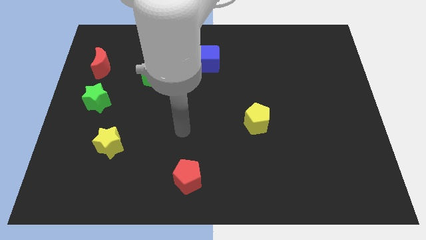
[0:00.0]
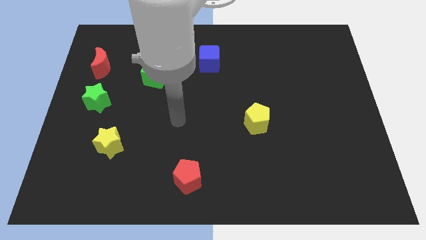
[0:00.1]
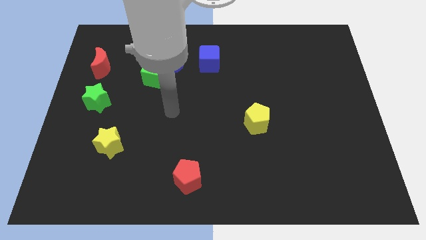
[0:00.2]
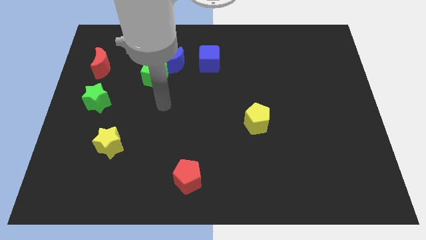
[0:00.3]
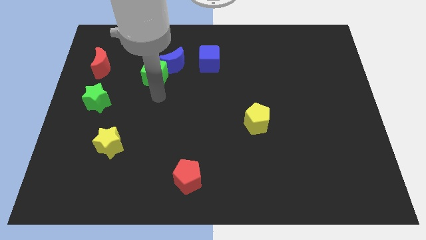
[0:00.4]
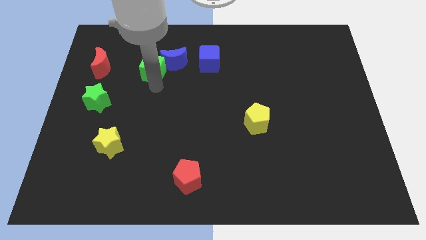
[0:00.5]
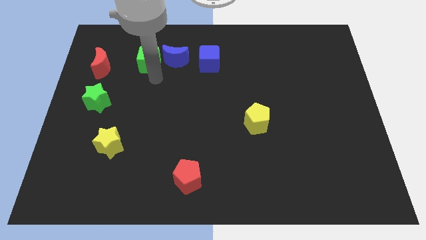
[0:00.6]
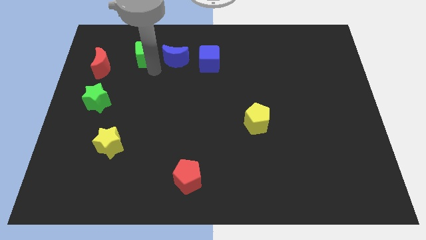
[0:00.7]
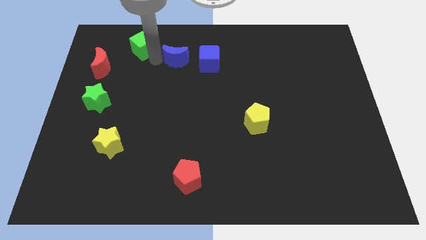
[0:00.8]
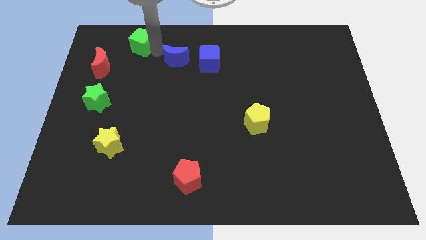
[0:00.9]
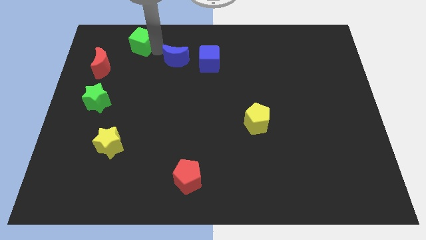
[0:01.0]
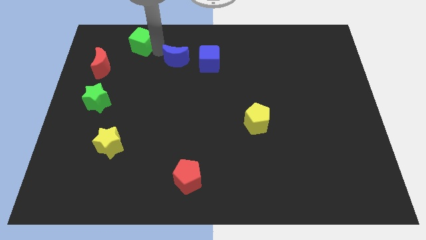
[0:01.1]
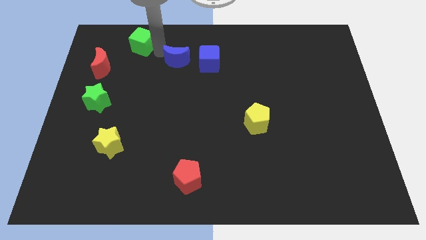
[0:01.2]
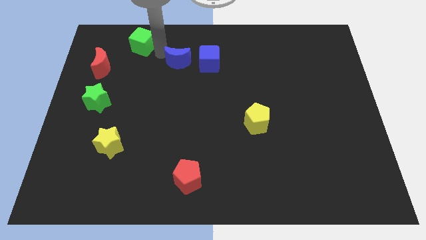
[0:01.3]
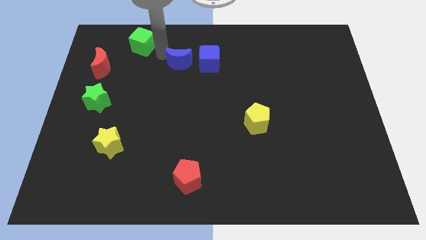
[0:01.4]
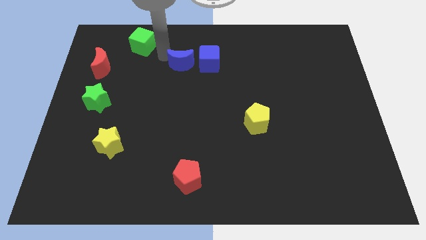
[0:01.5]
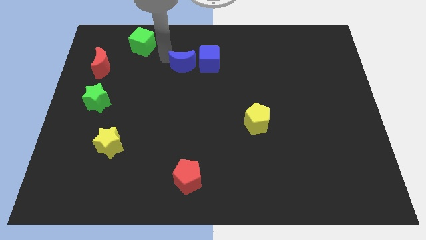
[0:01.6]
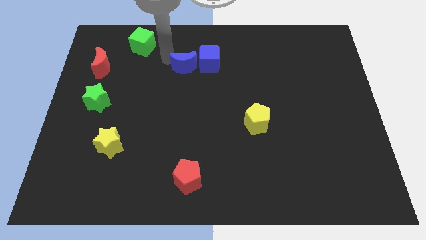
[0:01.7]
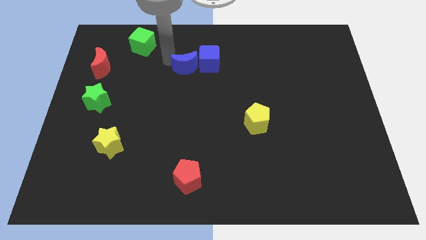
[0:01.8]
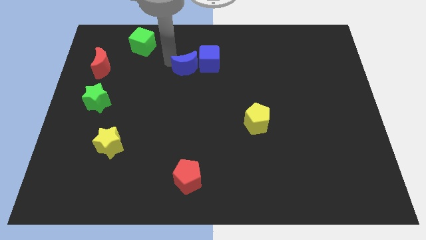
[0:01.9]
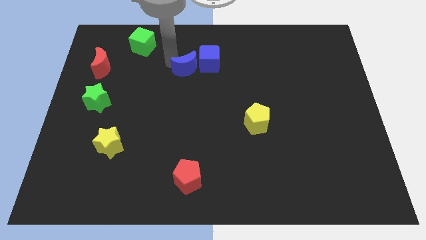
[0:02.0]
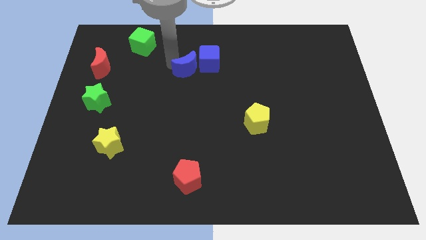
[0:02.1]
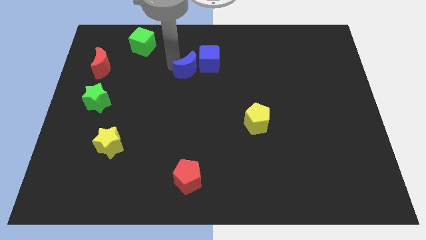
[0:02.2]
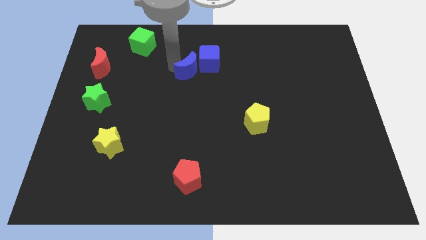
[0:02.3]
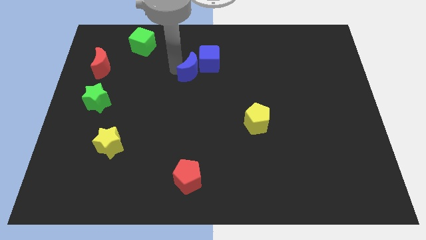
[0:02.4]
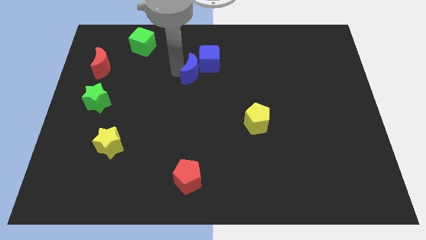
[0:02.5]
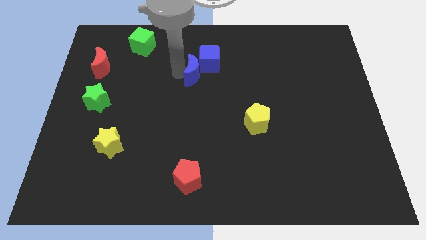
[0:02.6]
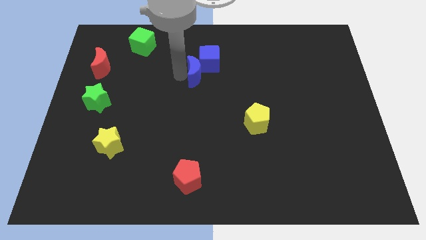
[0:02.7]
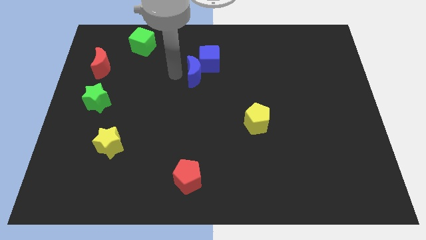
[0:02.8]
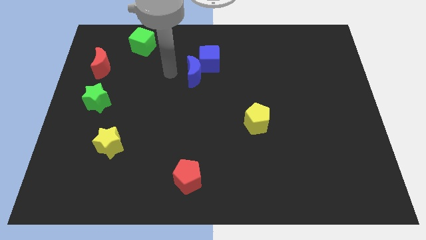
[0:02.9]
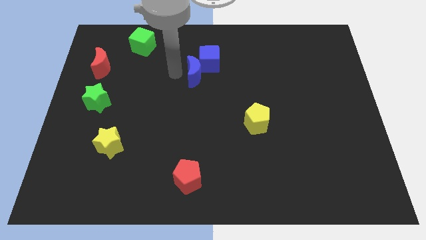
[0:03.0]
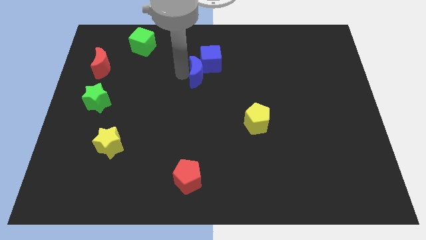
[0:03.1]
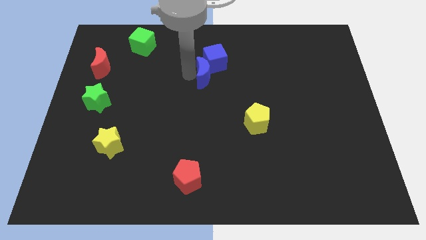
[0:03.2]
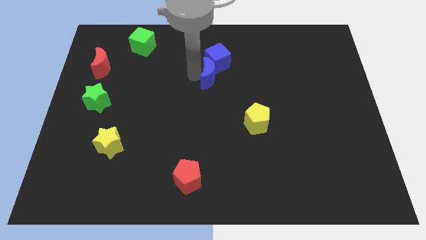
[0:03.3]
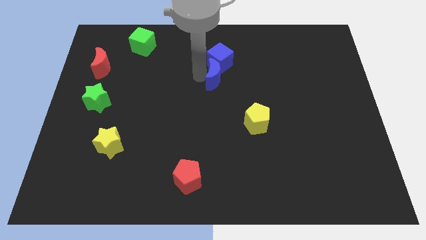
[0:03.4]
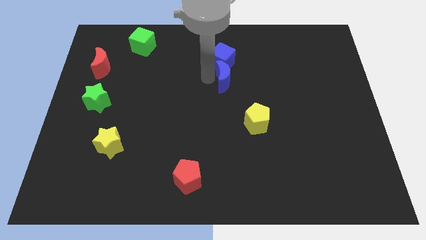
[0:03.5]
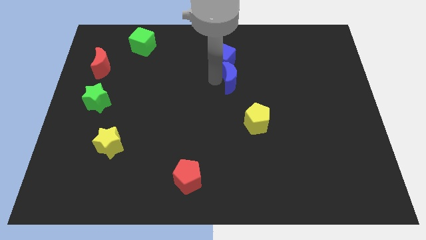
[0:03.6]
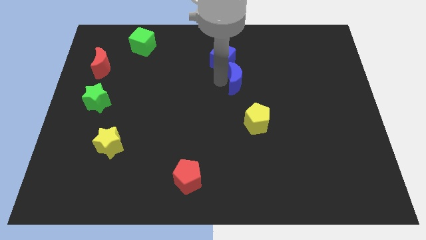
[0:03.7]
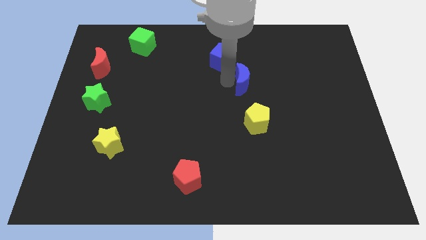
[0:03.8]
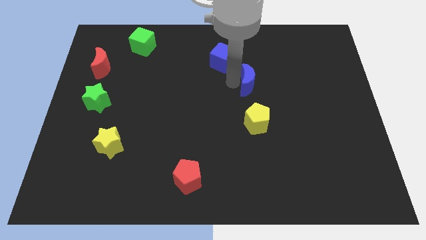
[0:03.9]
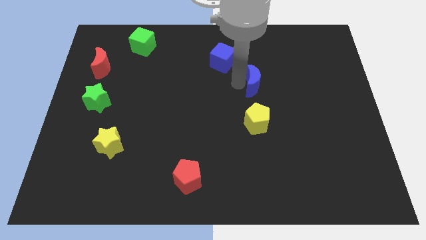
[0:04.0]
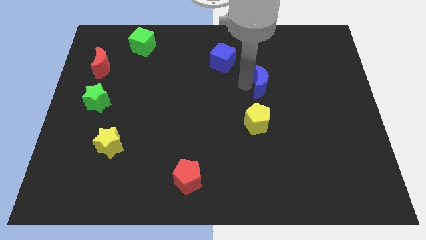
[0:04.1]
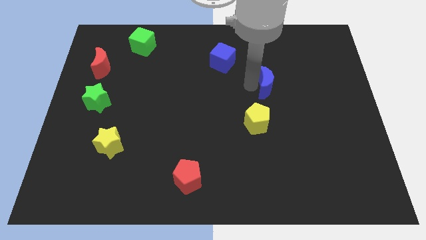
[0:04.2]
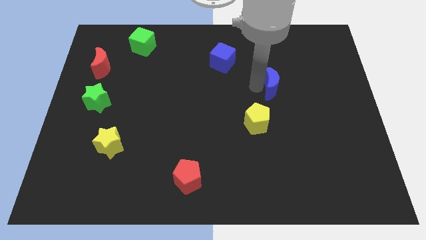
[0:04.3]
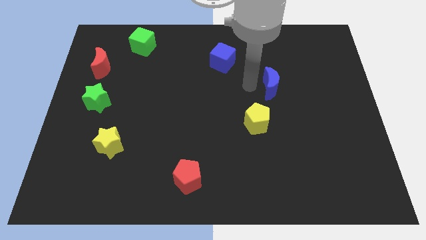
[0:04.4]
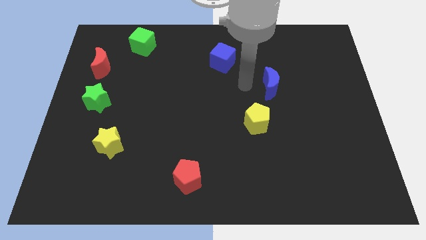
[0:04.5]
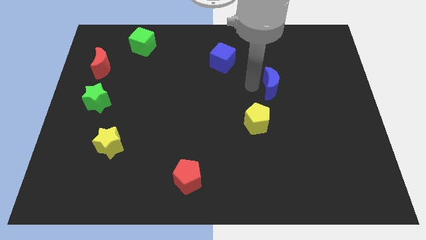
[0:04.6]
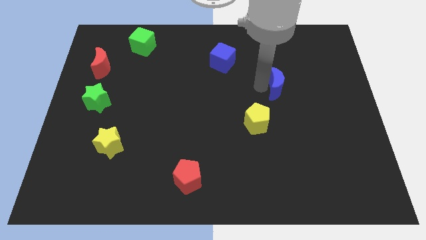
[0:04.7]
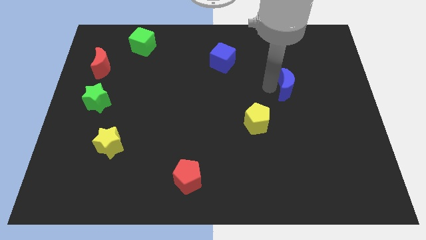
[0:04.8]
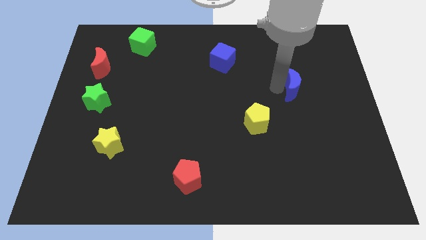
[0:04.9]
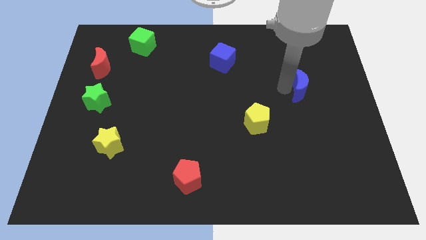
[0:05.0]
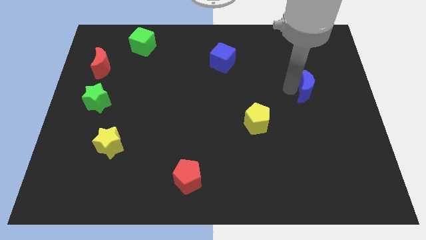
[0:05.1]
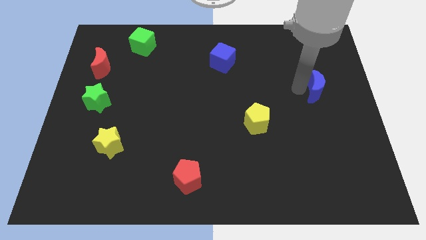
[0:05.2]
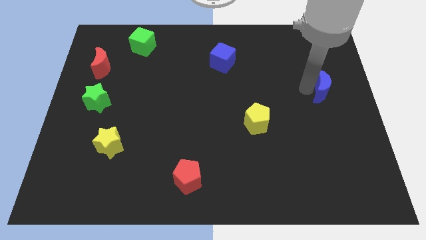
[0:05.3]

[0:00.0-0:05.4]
push the blue moon to the right side of the board

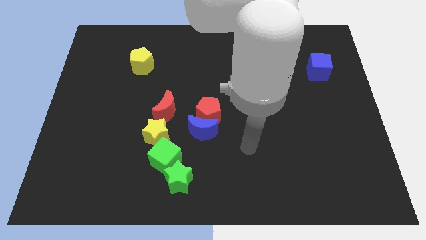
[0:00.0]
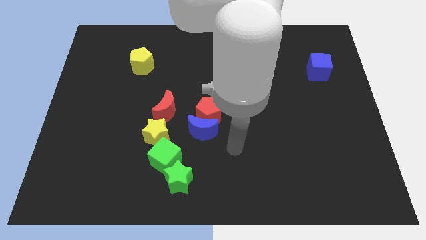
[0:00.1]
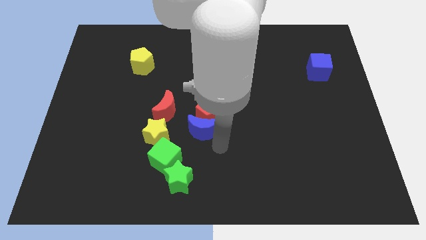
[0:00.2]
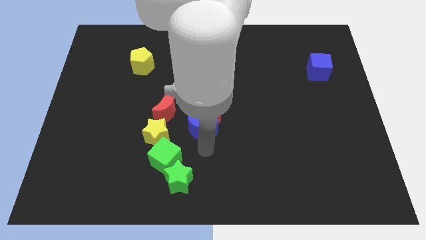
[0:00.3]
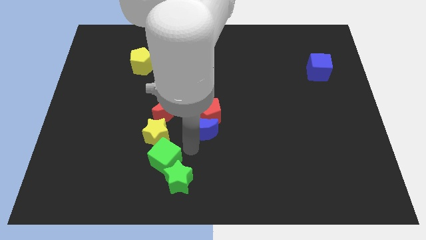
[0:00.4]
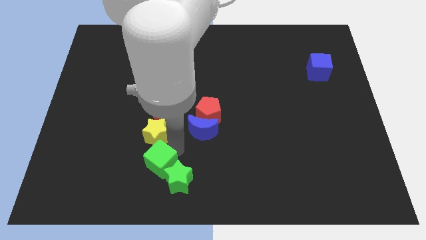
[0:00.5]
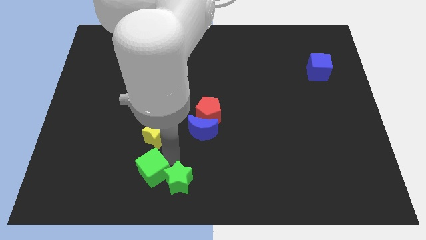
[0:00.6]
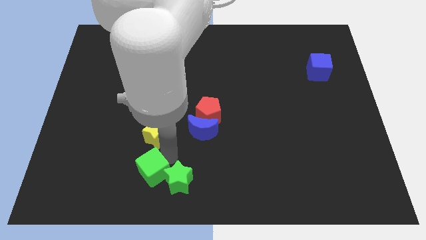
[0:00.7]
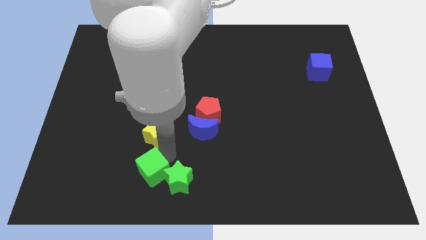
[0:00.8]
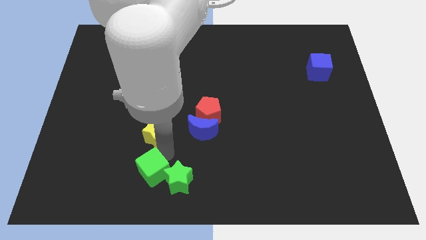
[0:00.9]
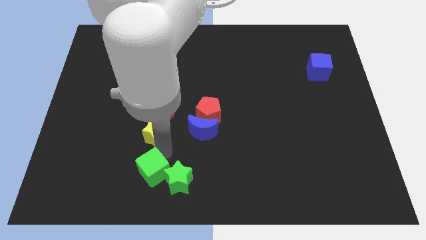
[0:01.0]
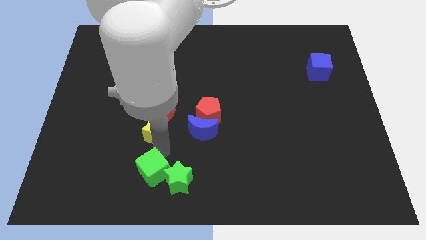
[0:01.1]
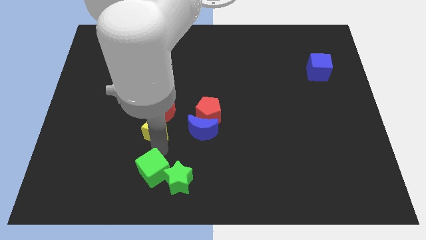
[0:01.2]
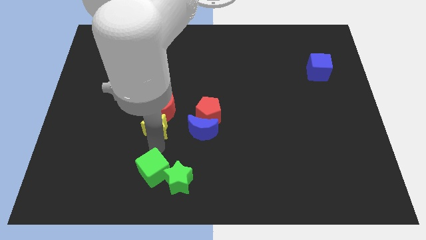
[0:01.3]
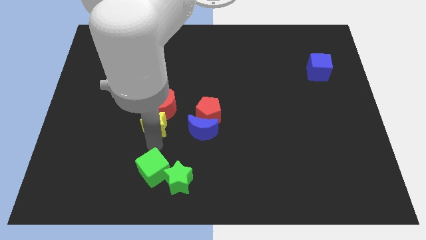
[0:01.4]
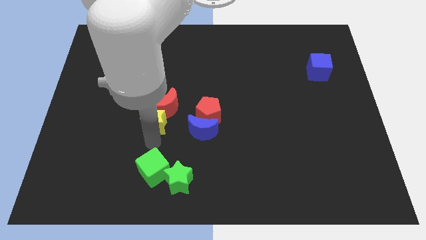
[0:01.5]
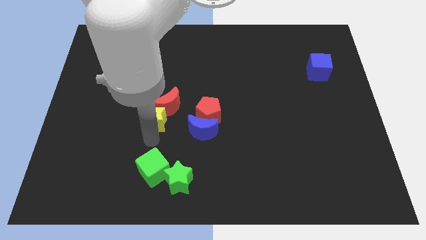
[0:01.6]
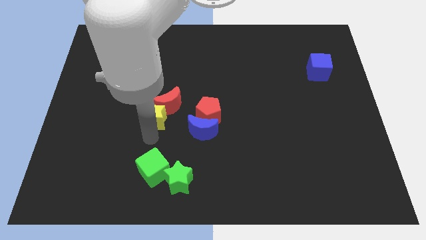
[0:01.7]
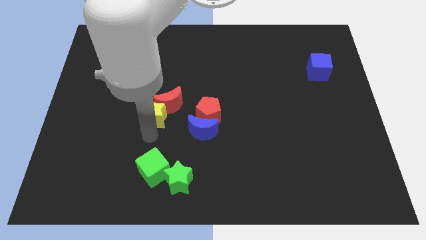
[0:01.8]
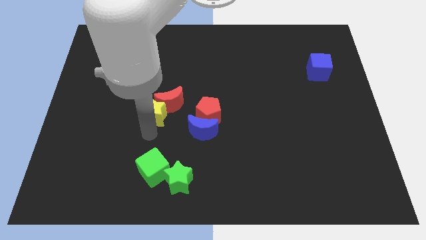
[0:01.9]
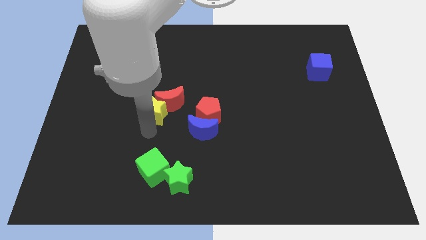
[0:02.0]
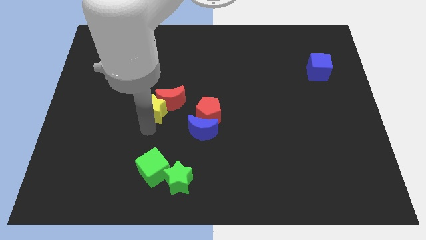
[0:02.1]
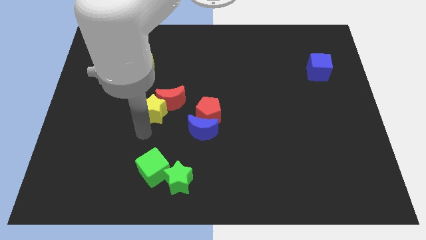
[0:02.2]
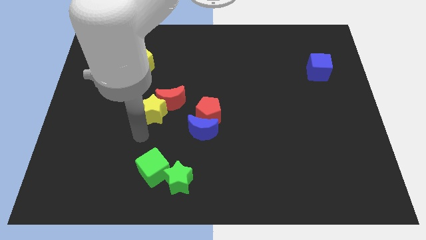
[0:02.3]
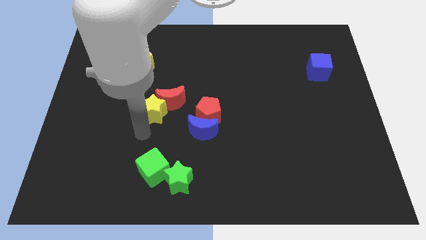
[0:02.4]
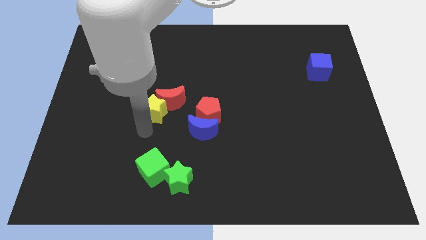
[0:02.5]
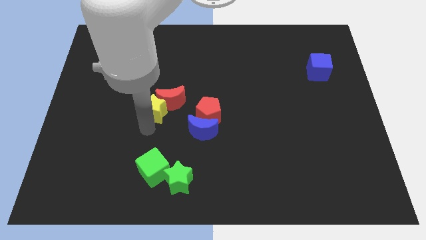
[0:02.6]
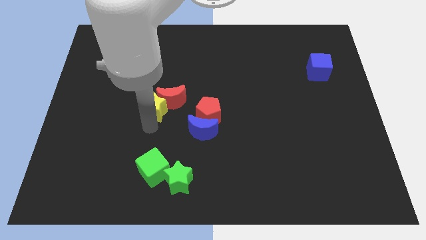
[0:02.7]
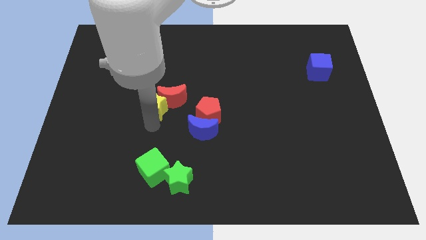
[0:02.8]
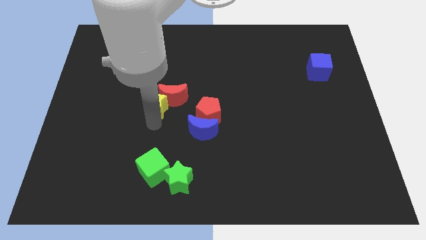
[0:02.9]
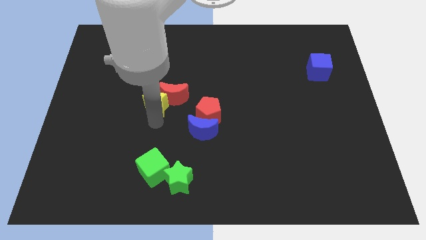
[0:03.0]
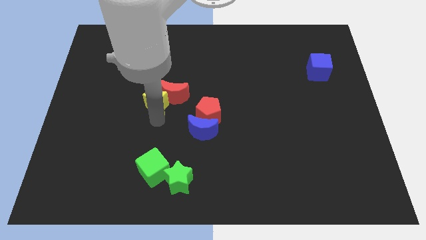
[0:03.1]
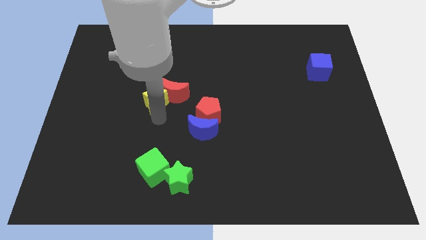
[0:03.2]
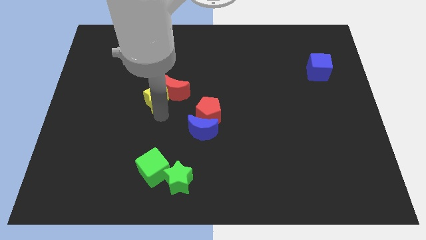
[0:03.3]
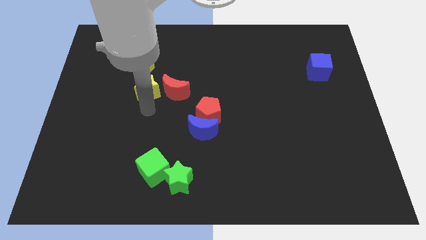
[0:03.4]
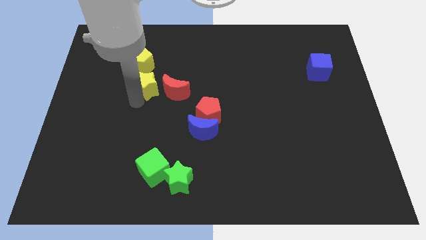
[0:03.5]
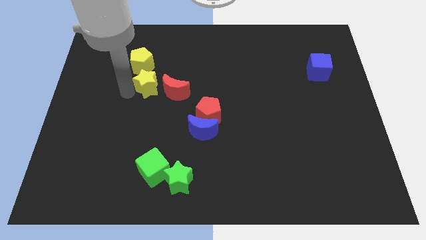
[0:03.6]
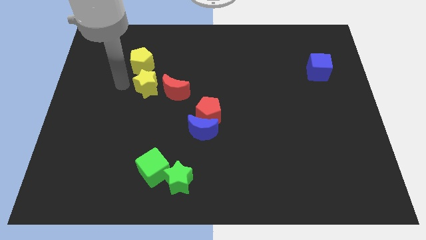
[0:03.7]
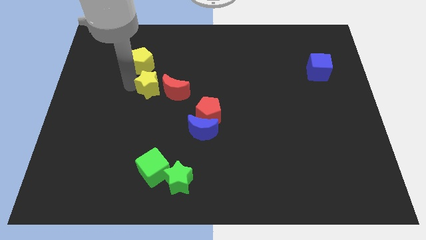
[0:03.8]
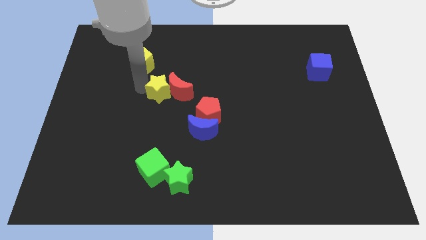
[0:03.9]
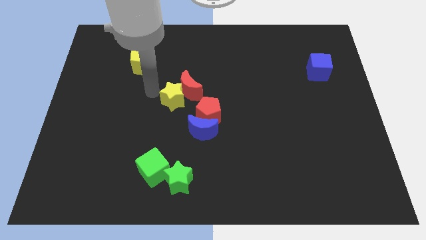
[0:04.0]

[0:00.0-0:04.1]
put the yellow star to the middle
